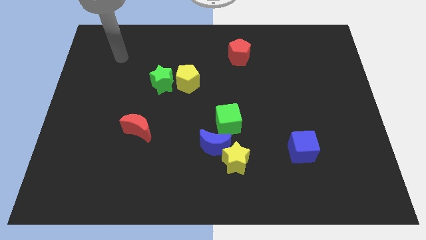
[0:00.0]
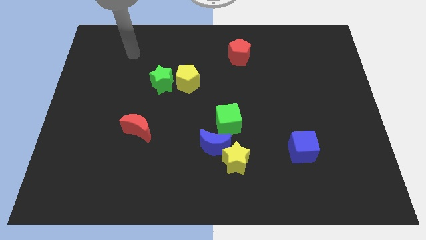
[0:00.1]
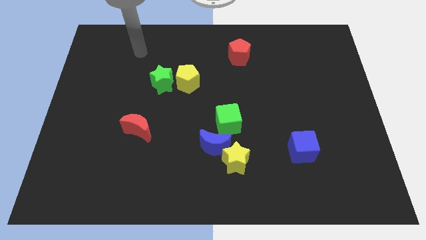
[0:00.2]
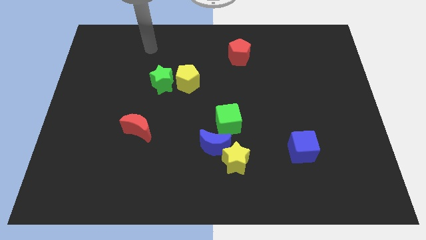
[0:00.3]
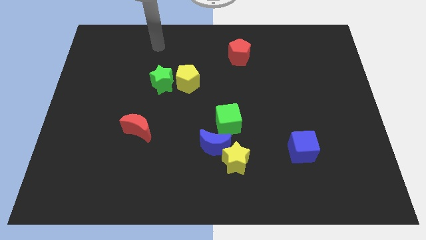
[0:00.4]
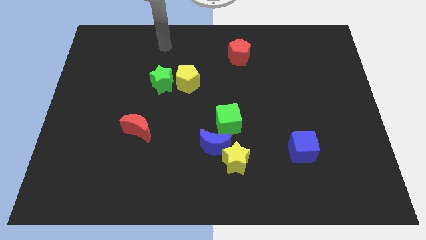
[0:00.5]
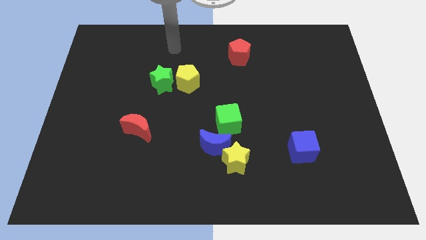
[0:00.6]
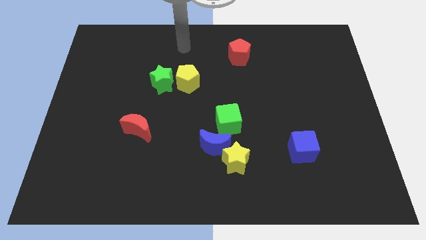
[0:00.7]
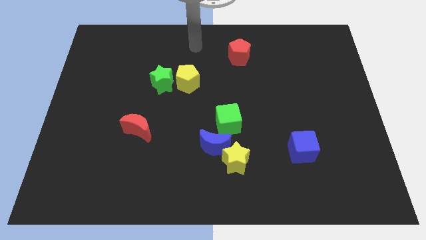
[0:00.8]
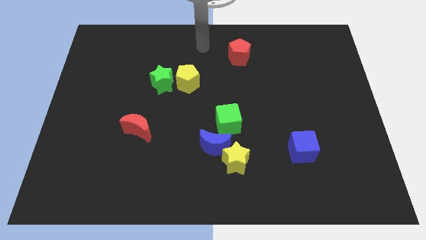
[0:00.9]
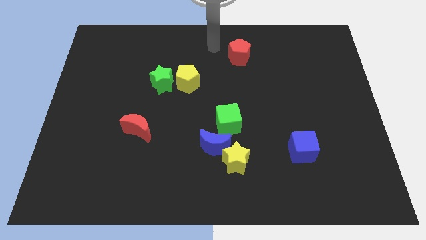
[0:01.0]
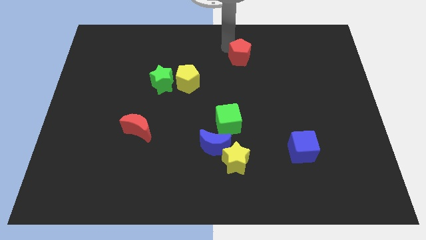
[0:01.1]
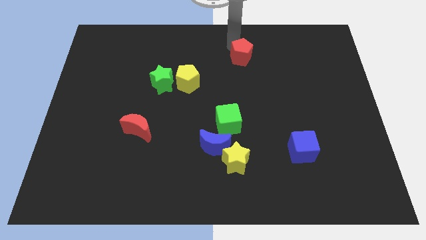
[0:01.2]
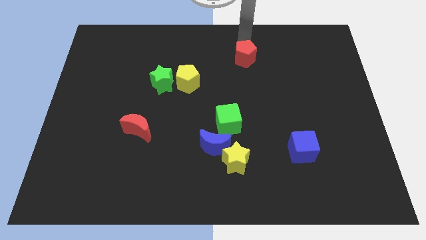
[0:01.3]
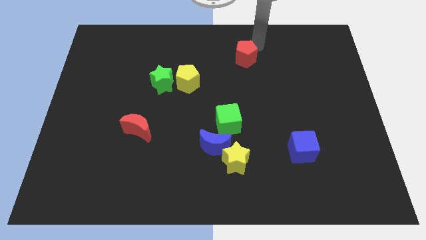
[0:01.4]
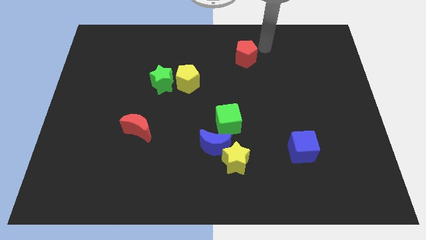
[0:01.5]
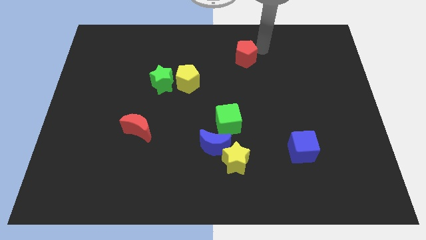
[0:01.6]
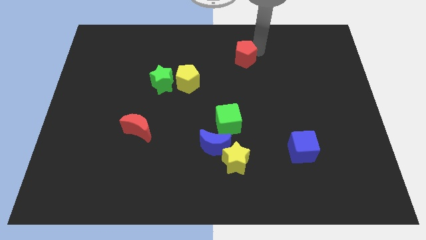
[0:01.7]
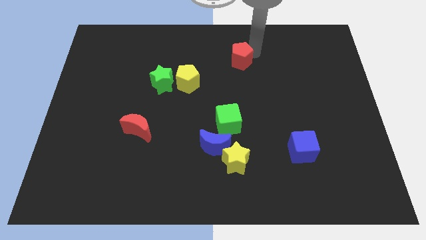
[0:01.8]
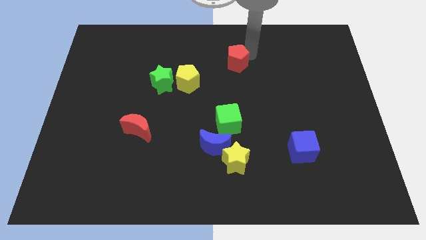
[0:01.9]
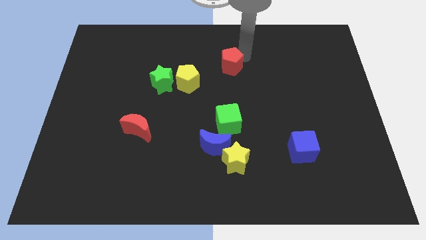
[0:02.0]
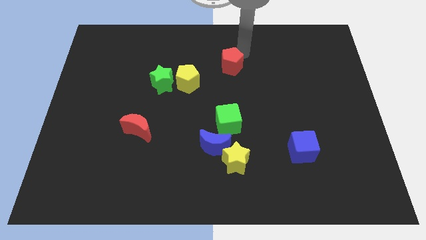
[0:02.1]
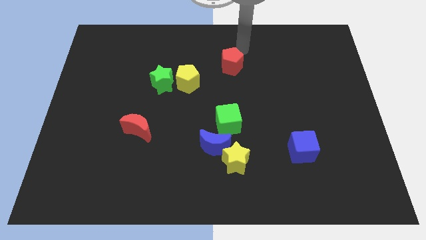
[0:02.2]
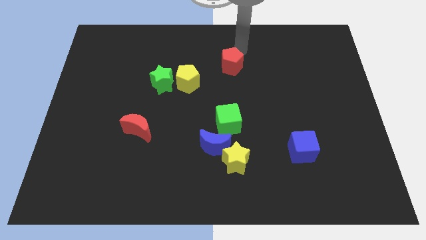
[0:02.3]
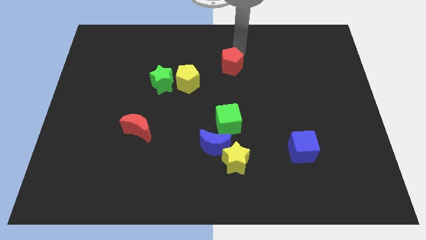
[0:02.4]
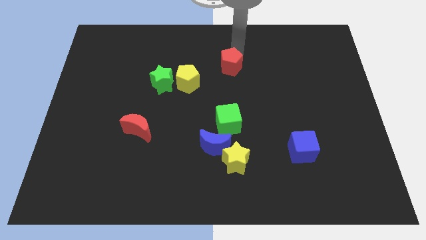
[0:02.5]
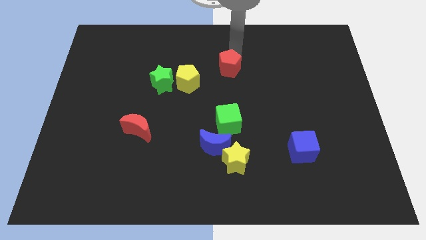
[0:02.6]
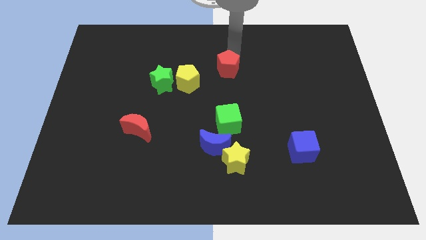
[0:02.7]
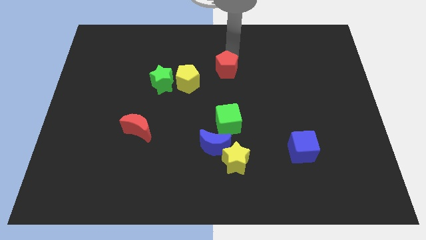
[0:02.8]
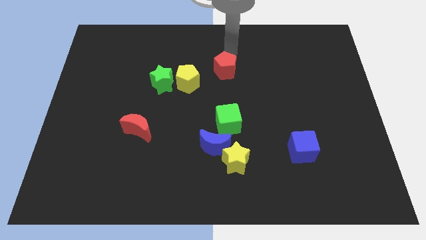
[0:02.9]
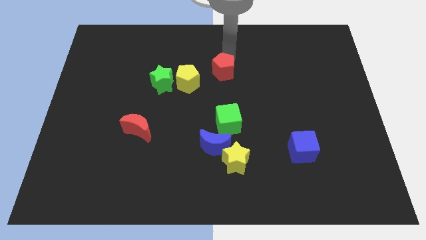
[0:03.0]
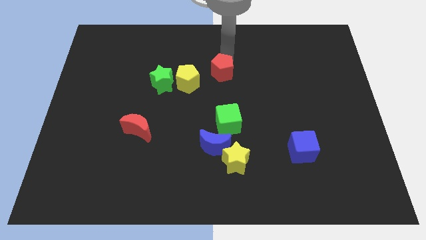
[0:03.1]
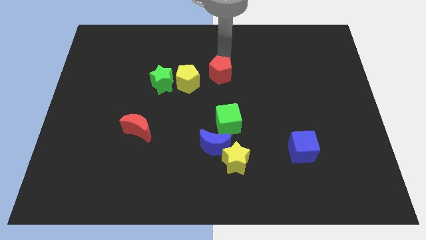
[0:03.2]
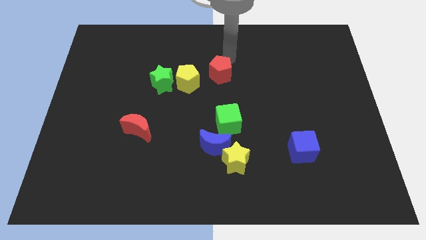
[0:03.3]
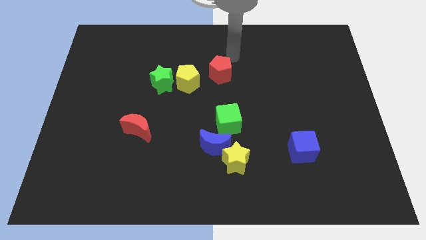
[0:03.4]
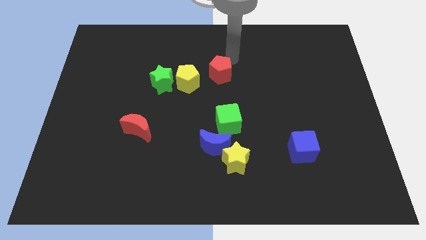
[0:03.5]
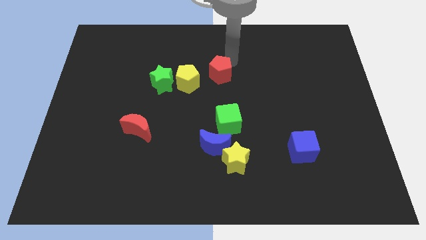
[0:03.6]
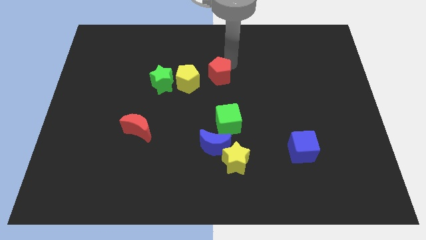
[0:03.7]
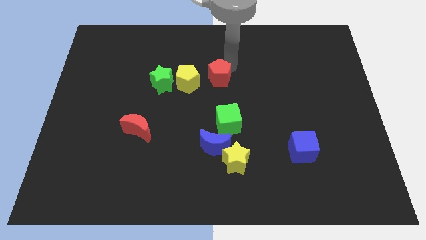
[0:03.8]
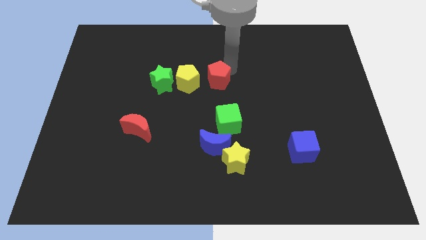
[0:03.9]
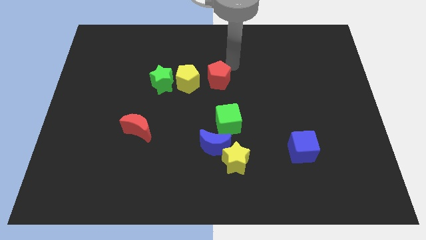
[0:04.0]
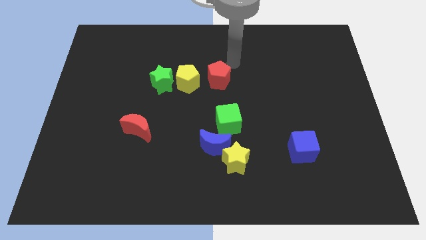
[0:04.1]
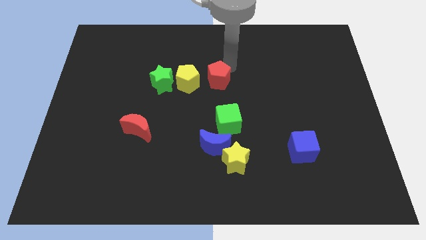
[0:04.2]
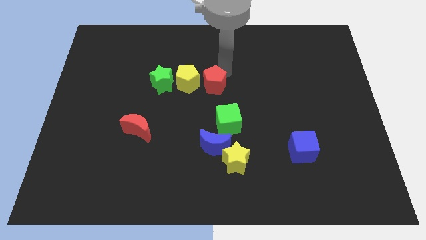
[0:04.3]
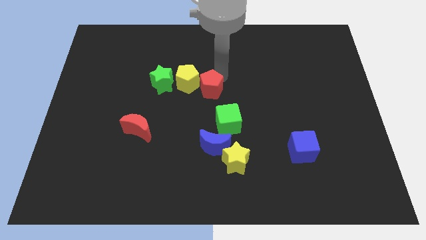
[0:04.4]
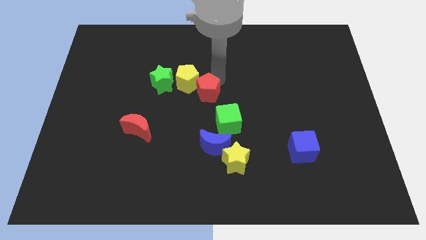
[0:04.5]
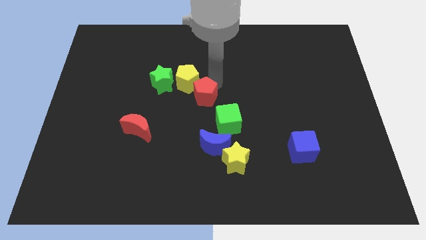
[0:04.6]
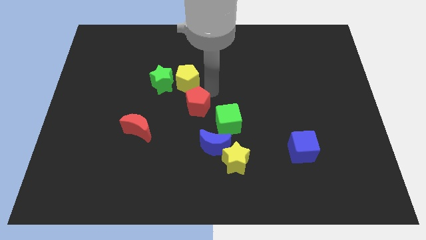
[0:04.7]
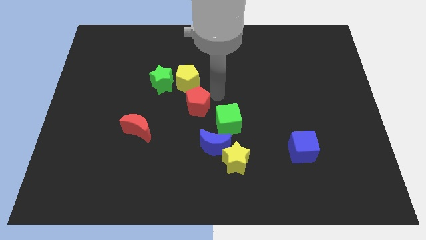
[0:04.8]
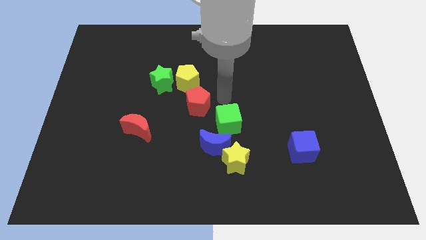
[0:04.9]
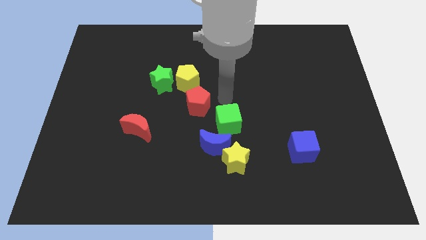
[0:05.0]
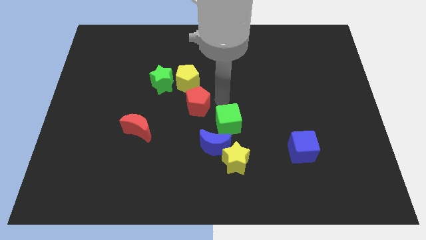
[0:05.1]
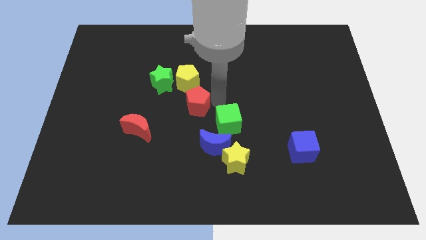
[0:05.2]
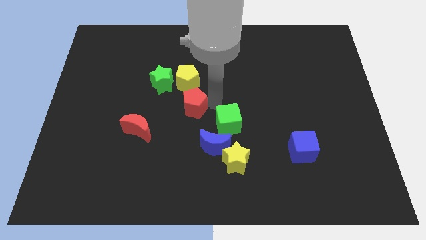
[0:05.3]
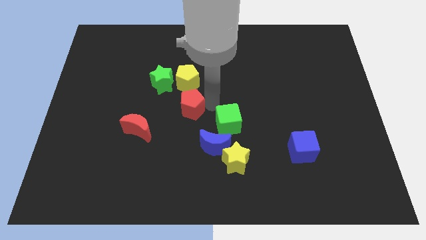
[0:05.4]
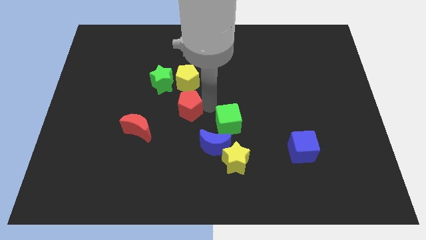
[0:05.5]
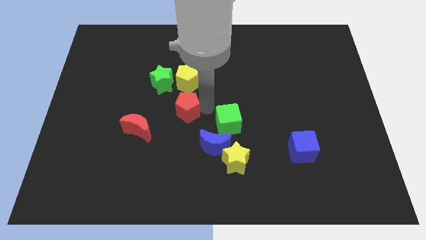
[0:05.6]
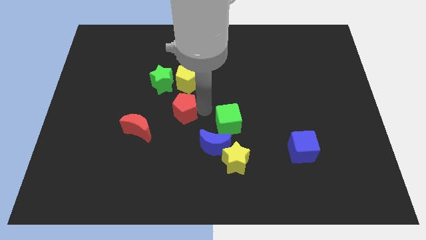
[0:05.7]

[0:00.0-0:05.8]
slide the red pentagon to the top right side of the red moon

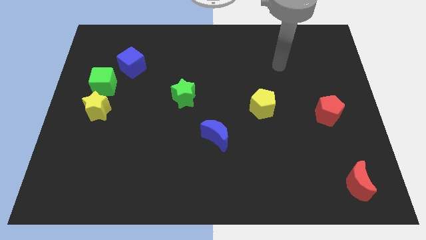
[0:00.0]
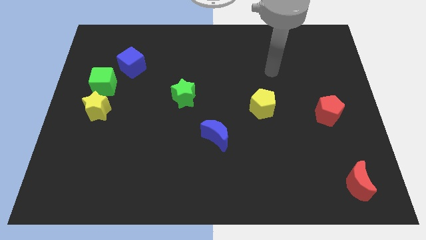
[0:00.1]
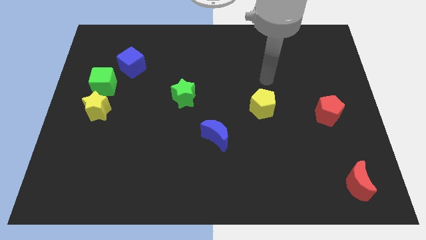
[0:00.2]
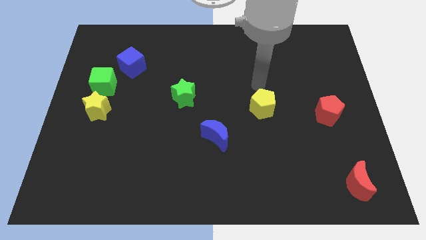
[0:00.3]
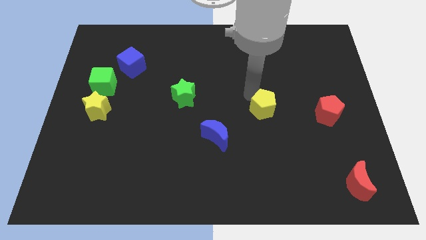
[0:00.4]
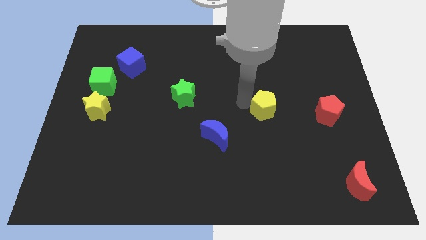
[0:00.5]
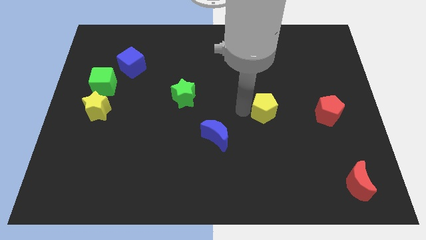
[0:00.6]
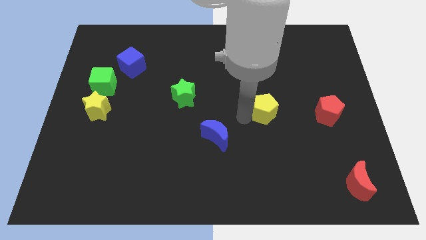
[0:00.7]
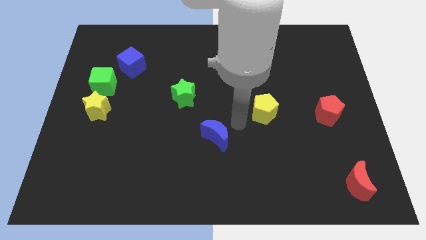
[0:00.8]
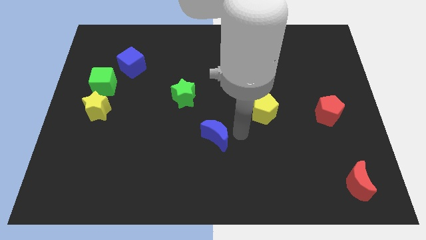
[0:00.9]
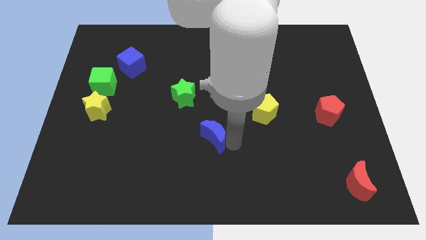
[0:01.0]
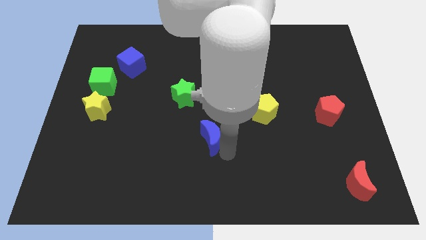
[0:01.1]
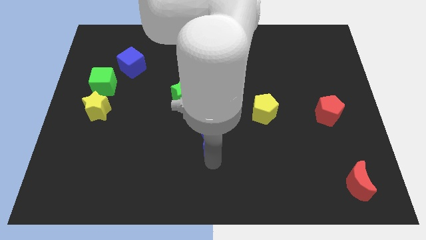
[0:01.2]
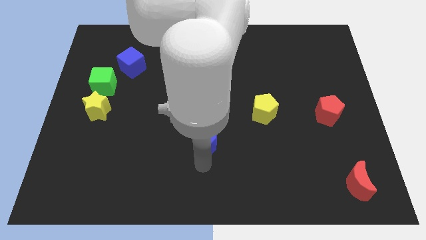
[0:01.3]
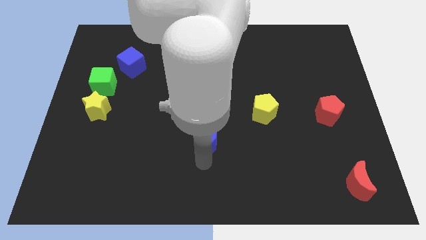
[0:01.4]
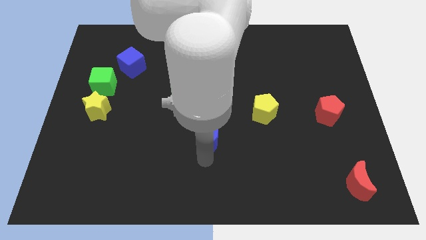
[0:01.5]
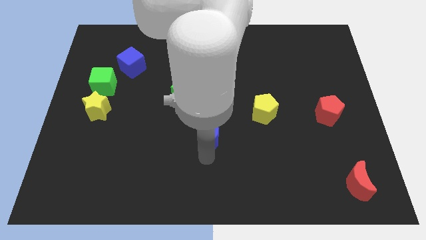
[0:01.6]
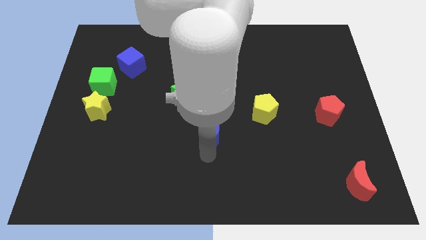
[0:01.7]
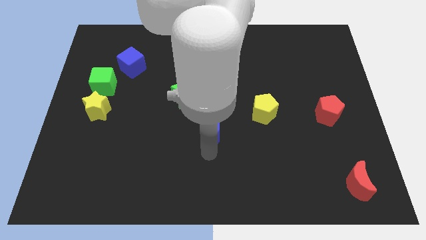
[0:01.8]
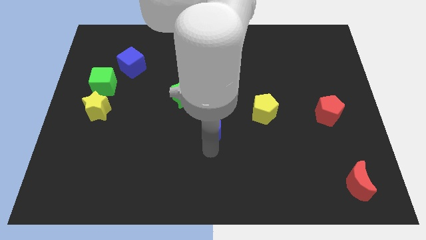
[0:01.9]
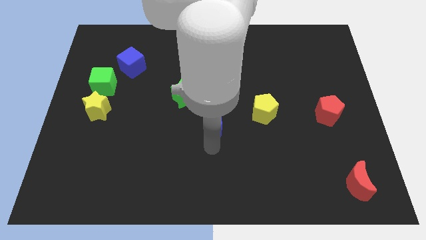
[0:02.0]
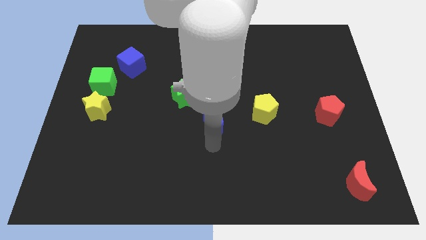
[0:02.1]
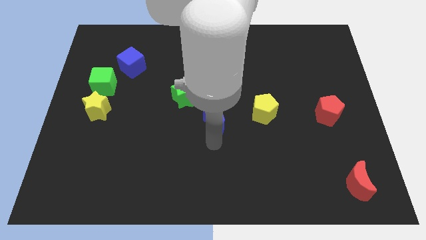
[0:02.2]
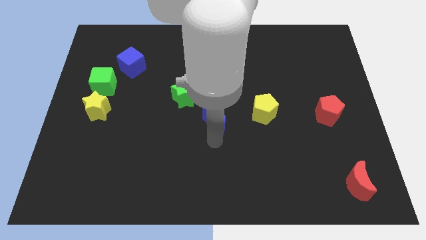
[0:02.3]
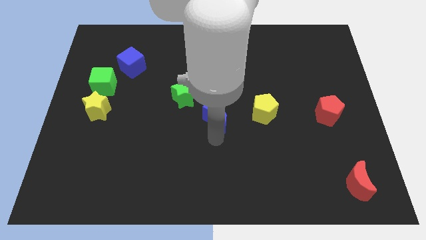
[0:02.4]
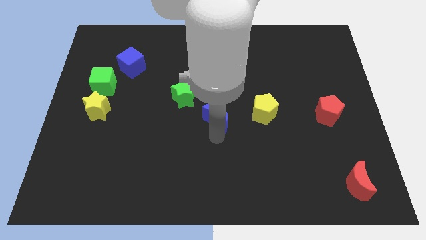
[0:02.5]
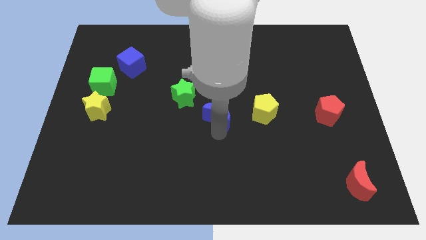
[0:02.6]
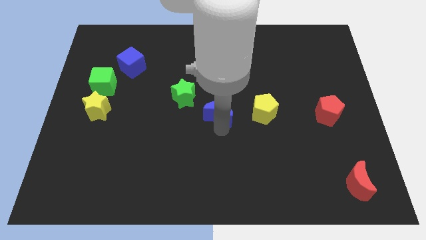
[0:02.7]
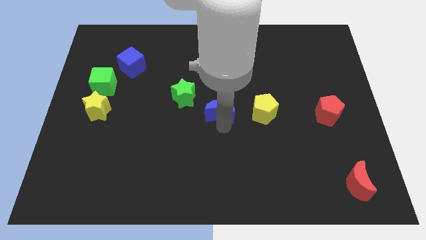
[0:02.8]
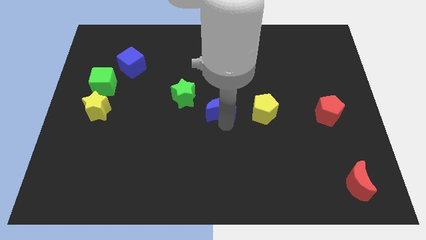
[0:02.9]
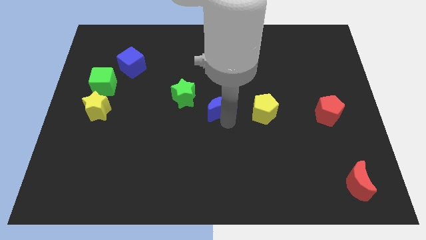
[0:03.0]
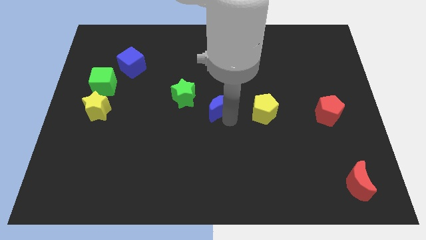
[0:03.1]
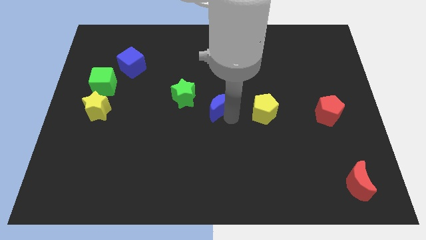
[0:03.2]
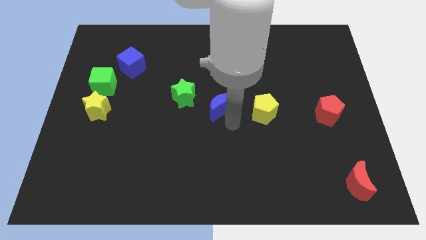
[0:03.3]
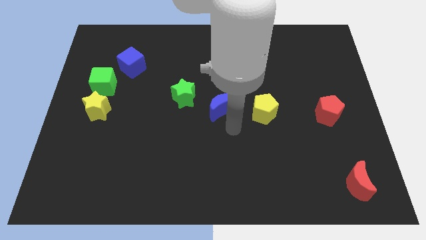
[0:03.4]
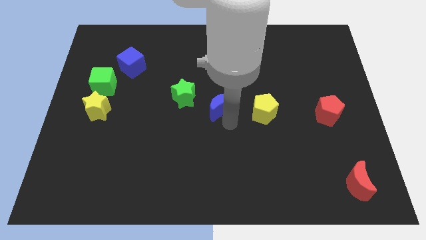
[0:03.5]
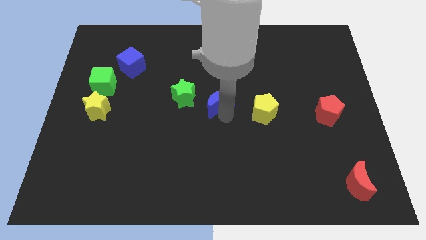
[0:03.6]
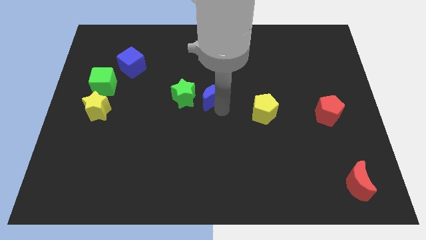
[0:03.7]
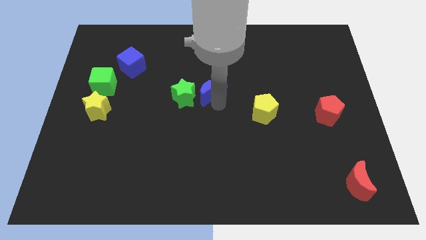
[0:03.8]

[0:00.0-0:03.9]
push the blue moon diagonally up and to the right of the green star
